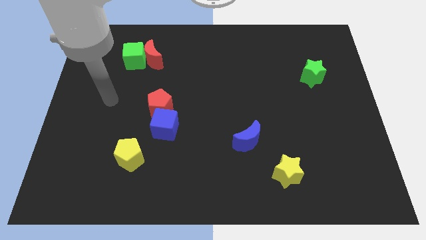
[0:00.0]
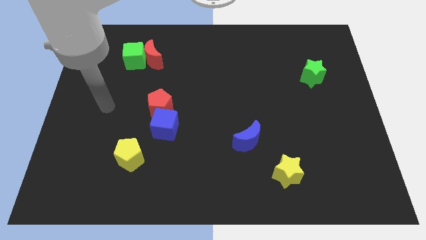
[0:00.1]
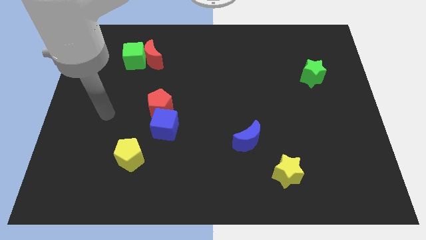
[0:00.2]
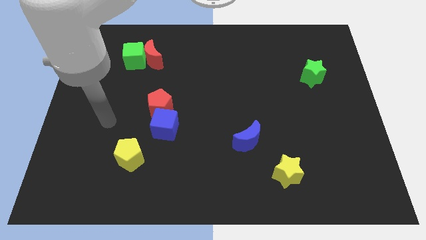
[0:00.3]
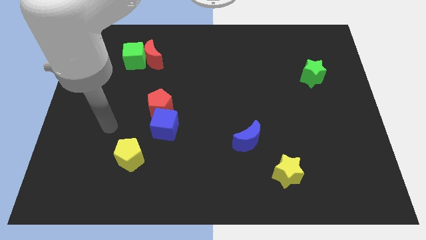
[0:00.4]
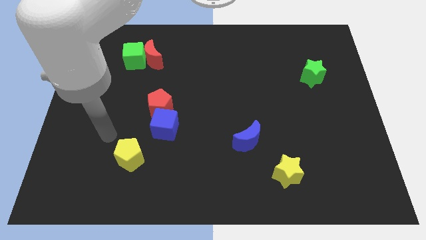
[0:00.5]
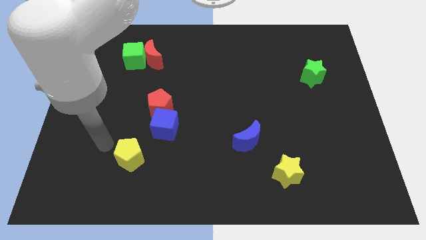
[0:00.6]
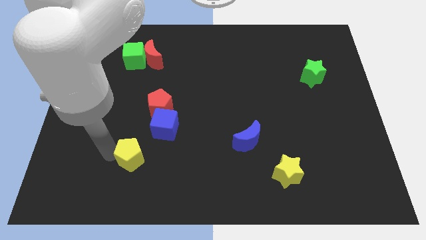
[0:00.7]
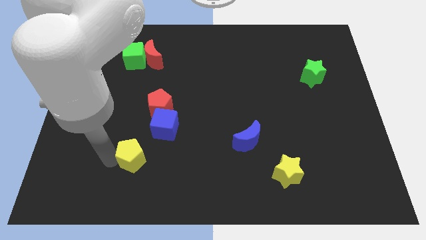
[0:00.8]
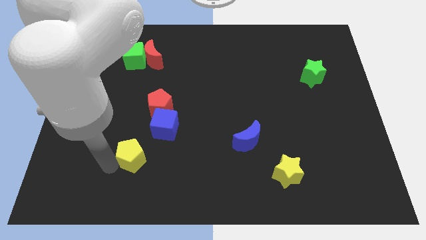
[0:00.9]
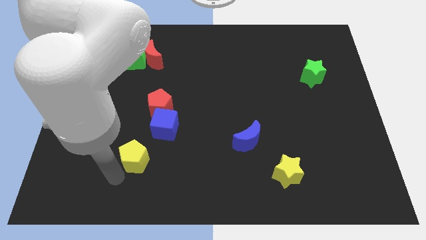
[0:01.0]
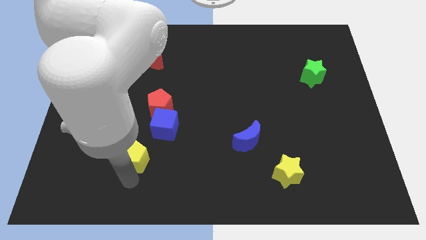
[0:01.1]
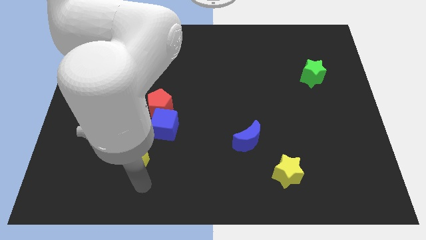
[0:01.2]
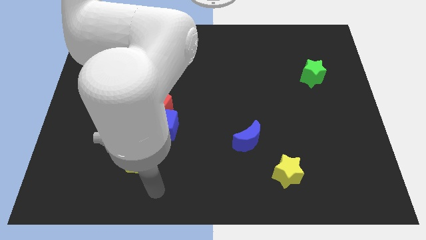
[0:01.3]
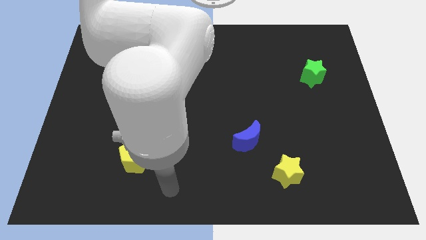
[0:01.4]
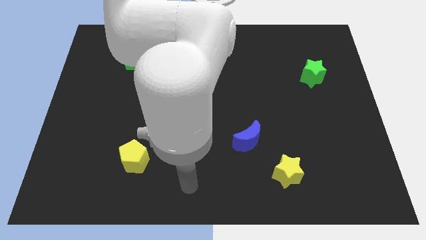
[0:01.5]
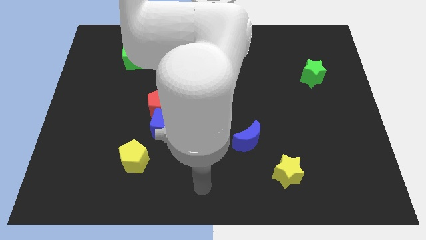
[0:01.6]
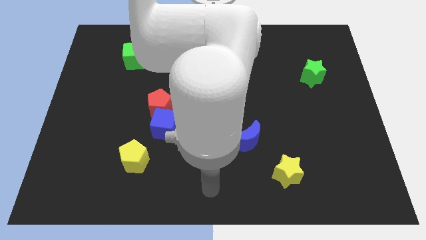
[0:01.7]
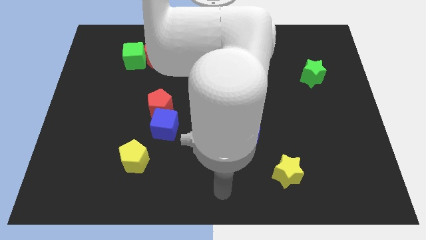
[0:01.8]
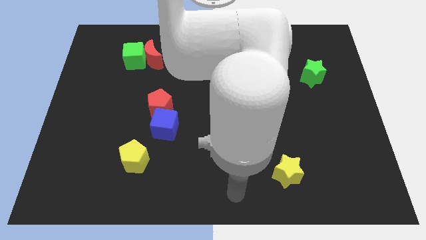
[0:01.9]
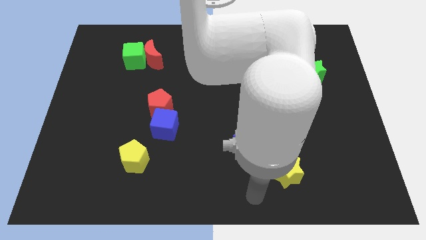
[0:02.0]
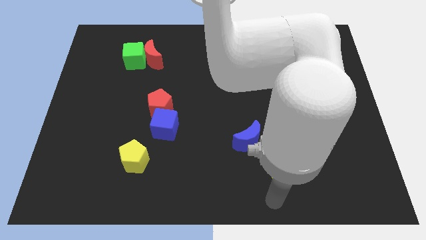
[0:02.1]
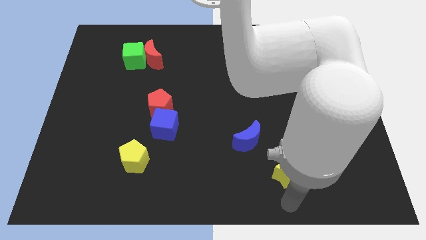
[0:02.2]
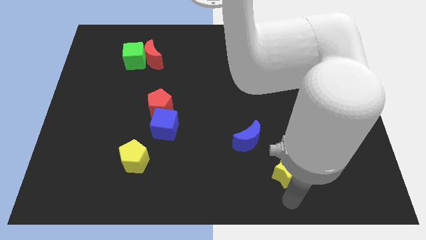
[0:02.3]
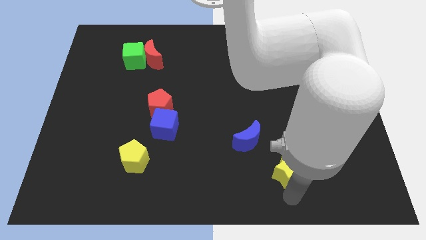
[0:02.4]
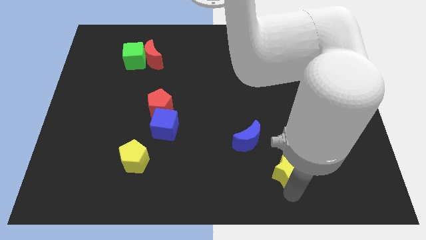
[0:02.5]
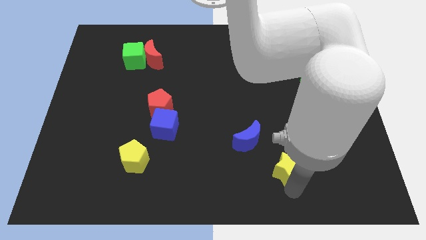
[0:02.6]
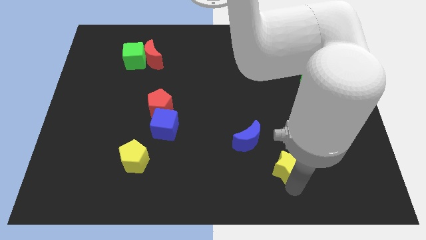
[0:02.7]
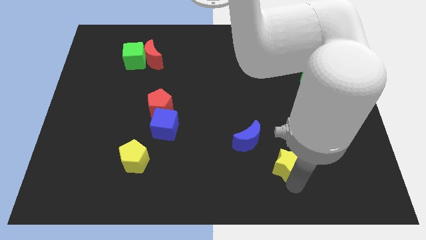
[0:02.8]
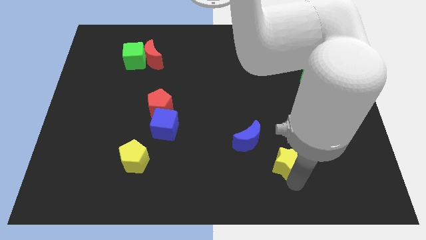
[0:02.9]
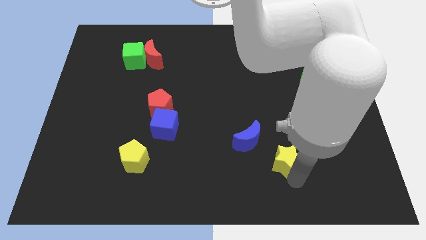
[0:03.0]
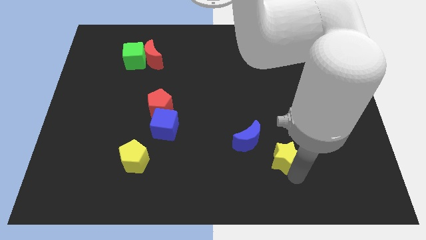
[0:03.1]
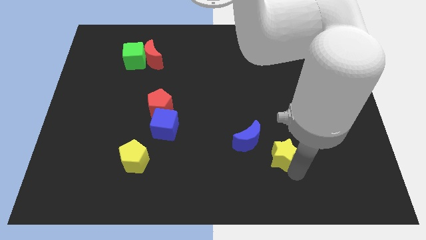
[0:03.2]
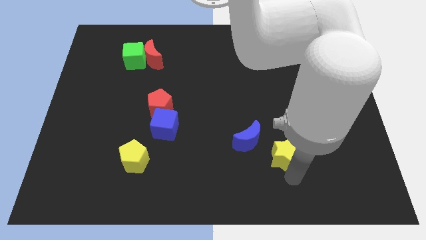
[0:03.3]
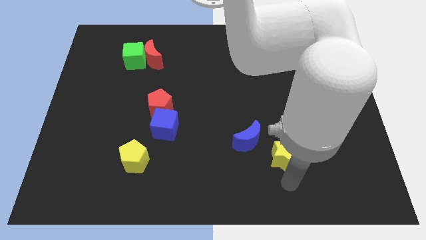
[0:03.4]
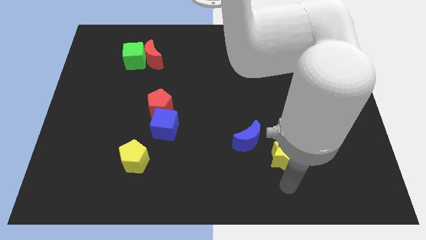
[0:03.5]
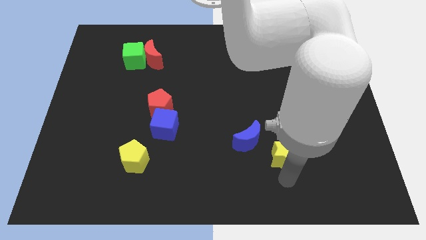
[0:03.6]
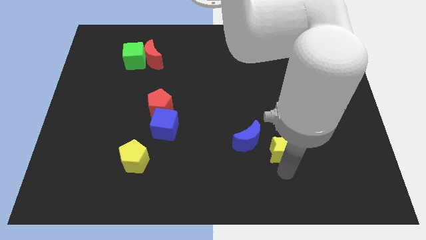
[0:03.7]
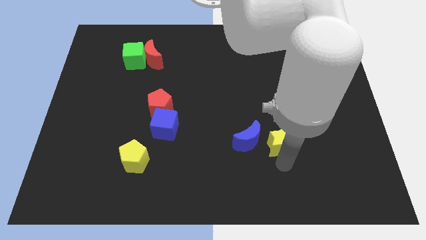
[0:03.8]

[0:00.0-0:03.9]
slightly slide the yellow star up

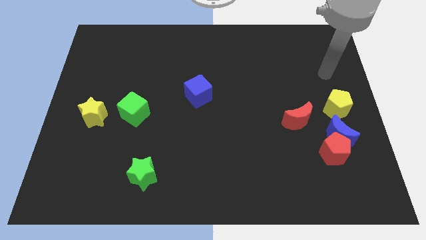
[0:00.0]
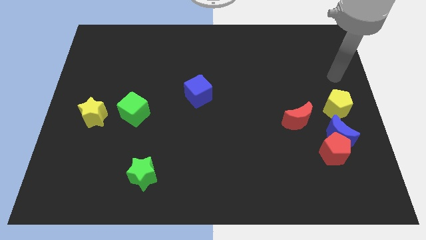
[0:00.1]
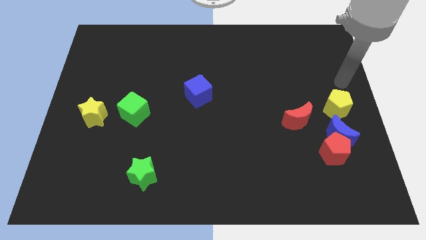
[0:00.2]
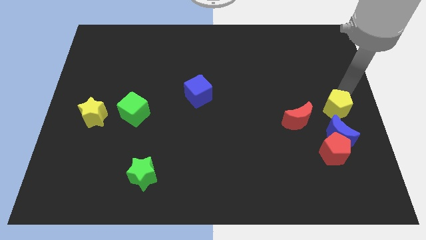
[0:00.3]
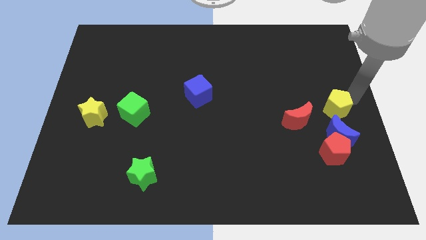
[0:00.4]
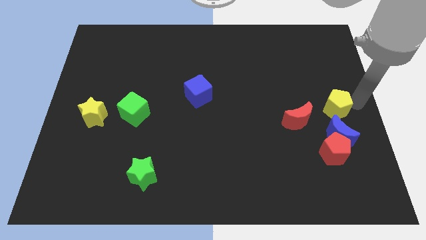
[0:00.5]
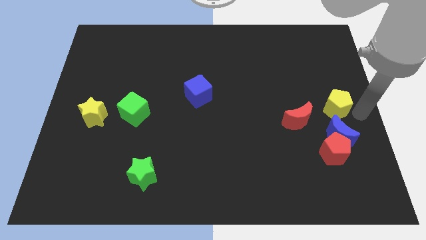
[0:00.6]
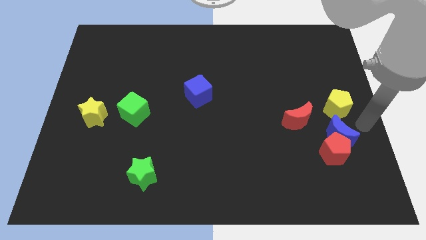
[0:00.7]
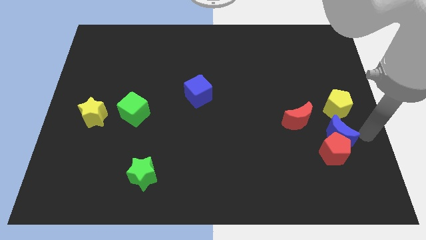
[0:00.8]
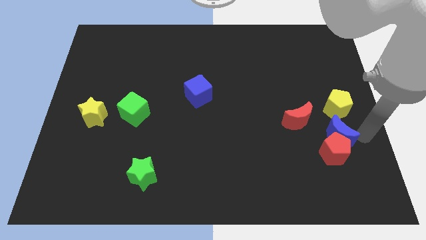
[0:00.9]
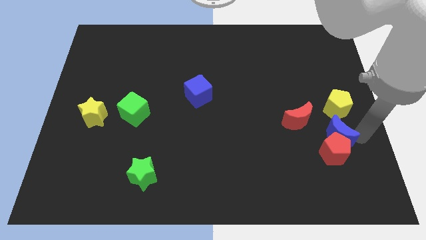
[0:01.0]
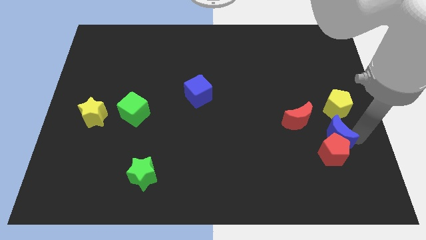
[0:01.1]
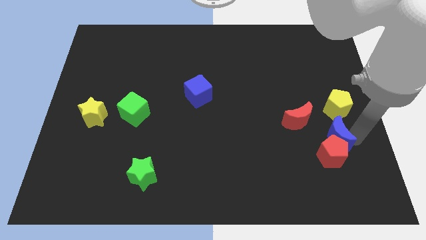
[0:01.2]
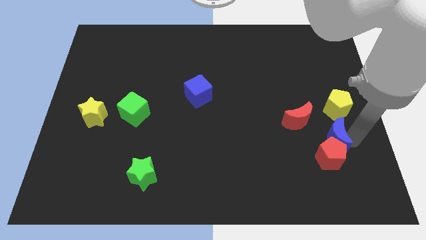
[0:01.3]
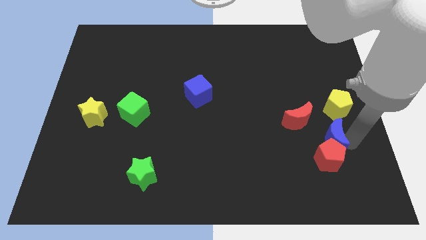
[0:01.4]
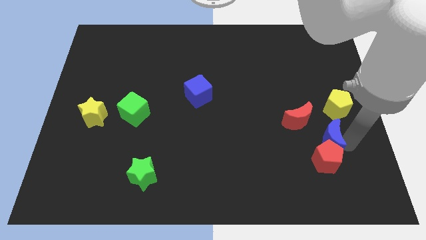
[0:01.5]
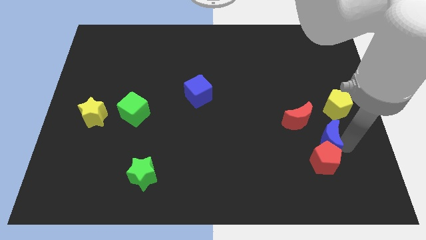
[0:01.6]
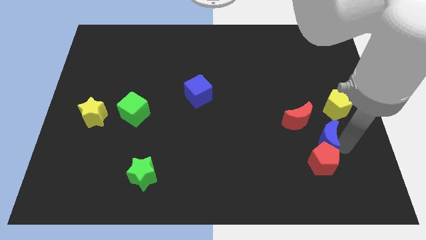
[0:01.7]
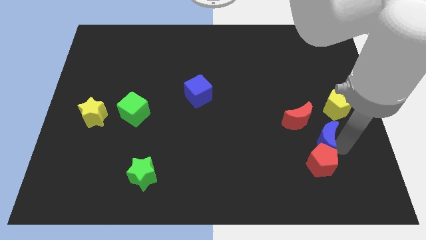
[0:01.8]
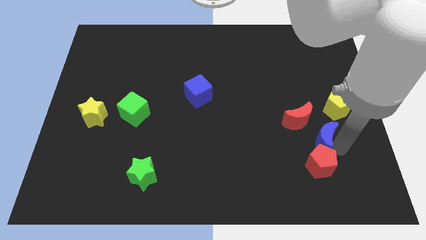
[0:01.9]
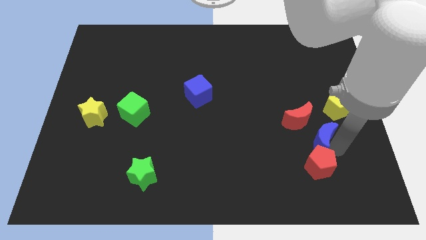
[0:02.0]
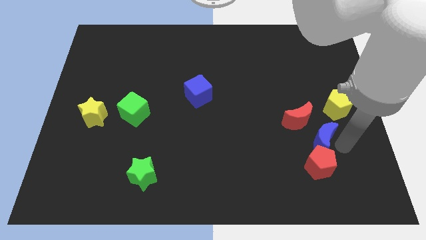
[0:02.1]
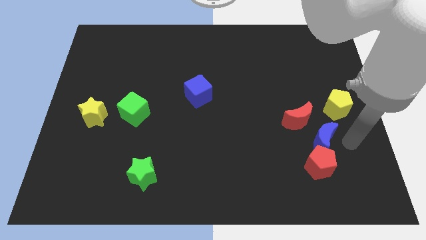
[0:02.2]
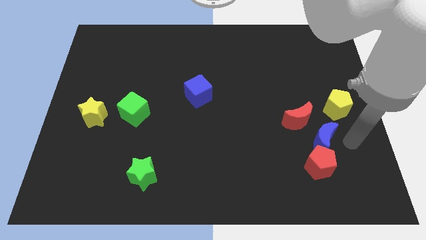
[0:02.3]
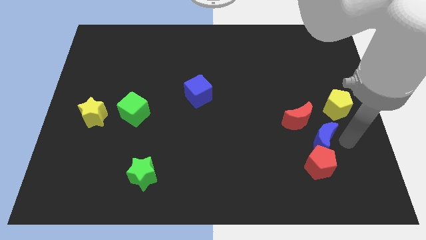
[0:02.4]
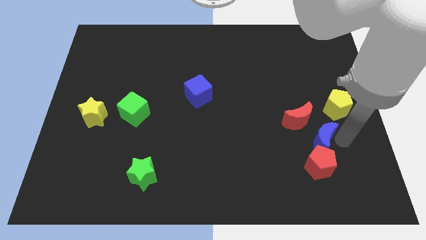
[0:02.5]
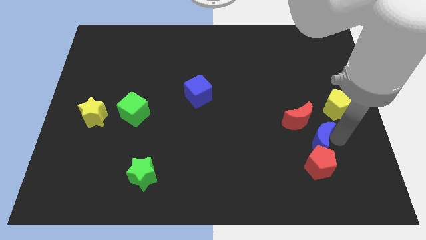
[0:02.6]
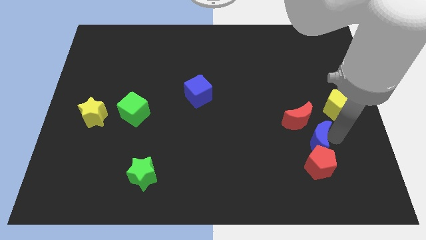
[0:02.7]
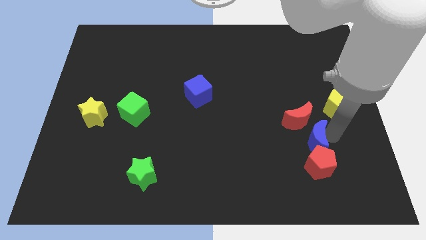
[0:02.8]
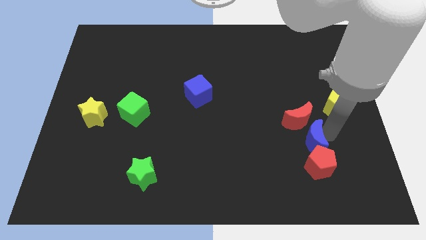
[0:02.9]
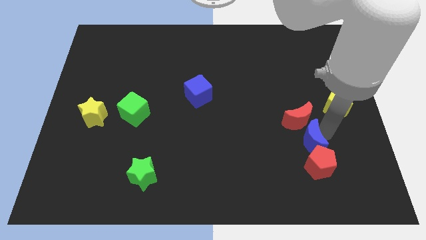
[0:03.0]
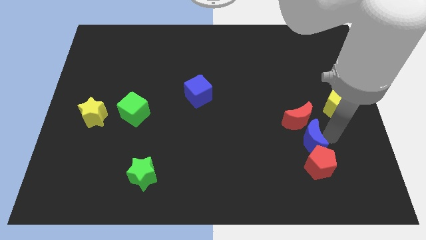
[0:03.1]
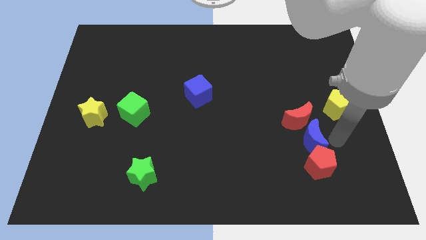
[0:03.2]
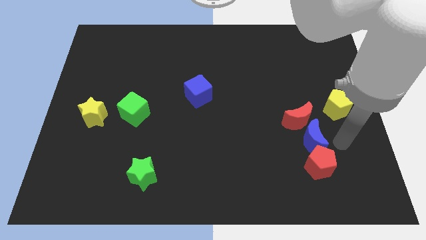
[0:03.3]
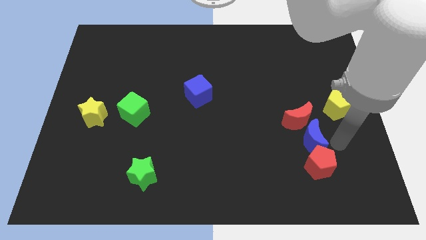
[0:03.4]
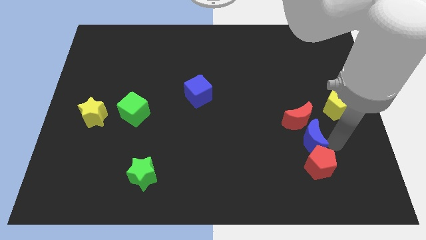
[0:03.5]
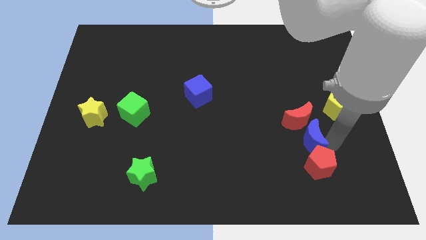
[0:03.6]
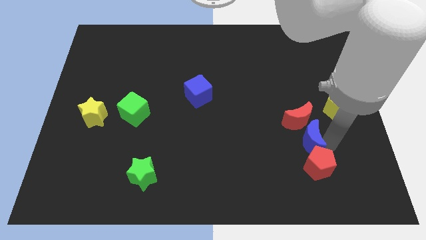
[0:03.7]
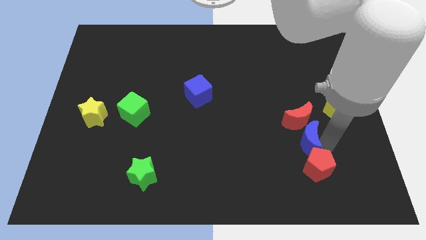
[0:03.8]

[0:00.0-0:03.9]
move the blue moon a bit left
